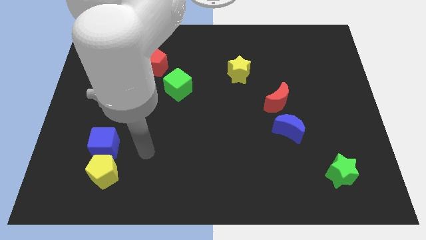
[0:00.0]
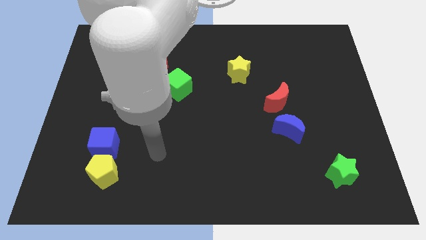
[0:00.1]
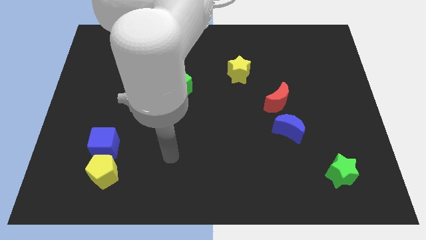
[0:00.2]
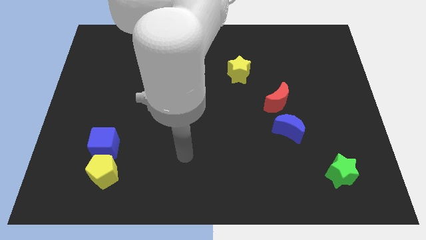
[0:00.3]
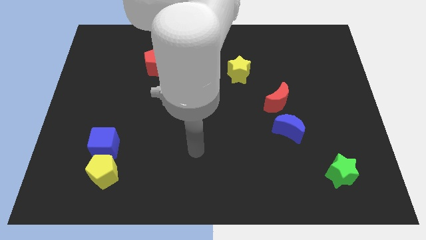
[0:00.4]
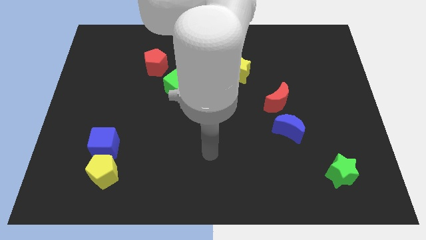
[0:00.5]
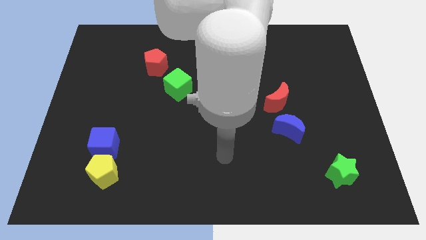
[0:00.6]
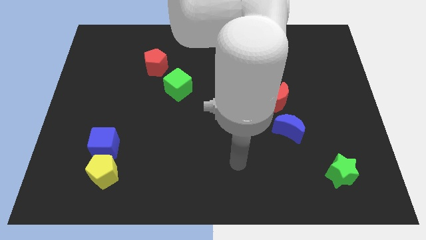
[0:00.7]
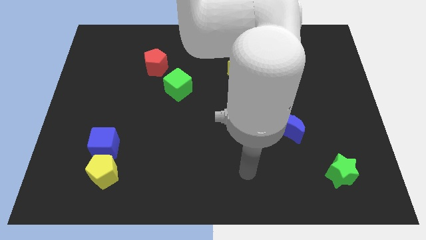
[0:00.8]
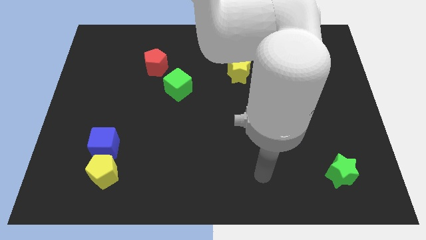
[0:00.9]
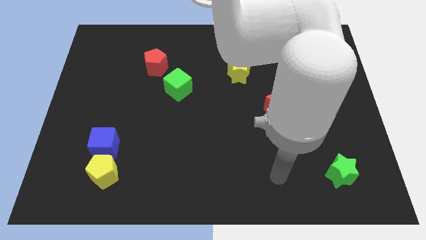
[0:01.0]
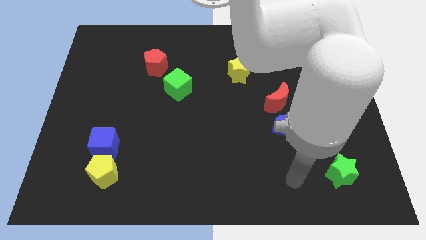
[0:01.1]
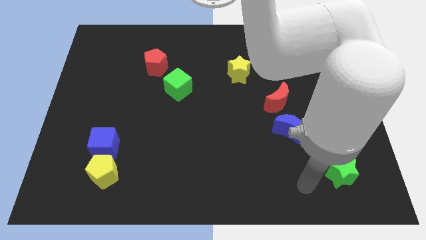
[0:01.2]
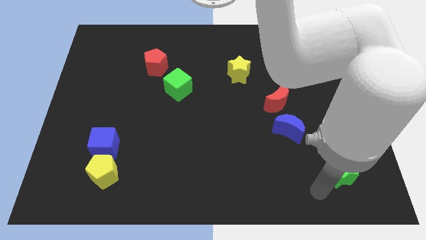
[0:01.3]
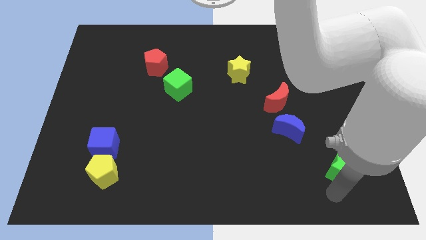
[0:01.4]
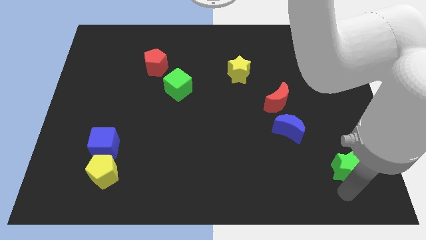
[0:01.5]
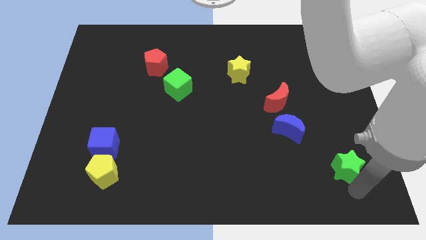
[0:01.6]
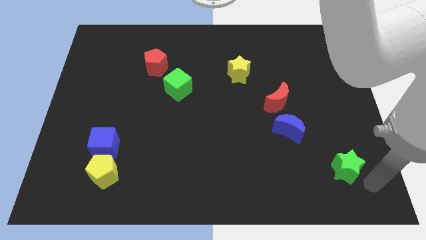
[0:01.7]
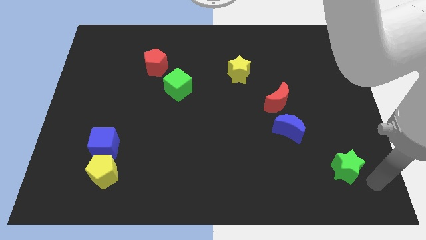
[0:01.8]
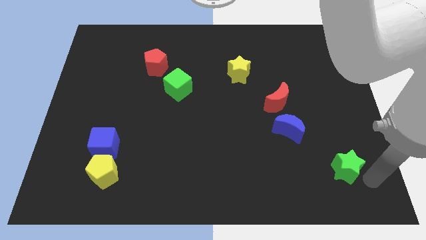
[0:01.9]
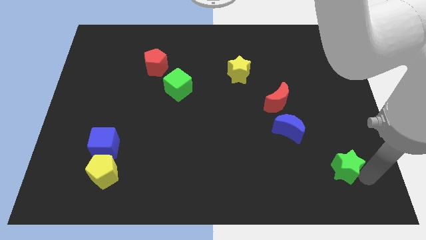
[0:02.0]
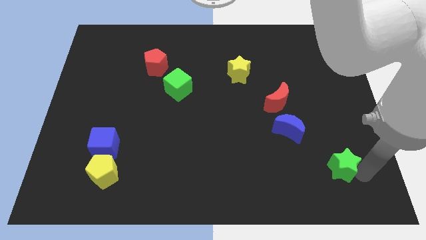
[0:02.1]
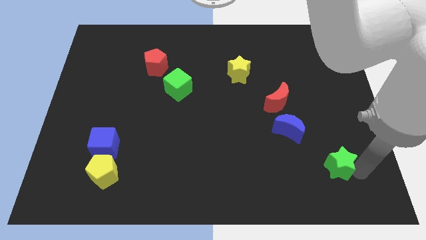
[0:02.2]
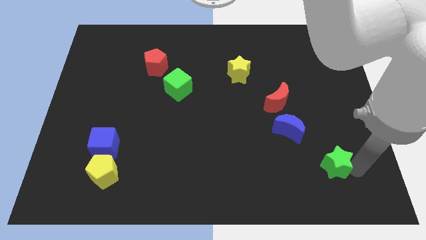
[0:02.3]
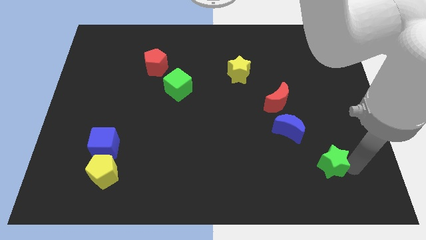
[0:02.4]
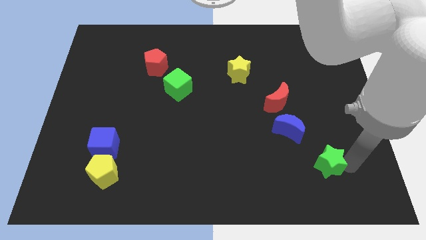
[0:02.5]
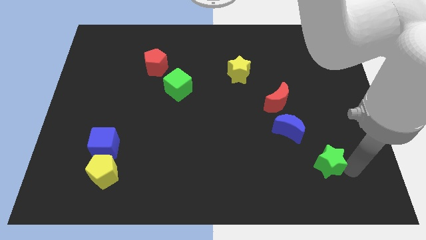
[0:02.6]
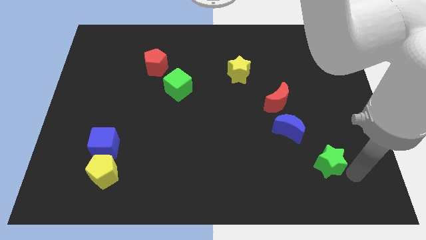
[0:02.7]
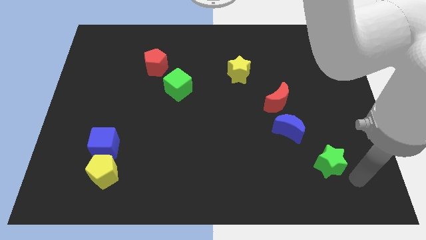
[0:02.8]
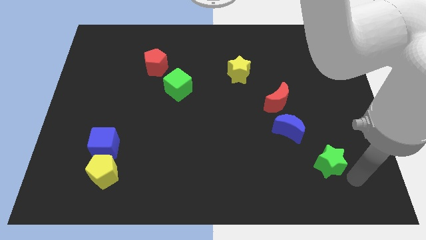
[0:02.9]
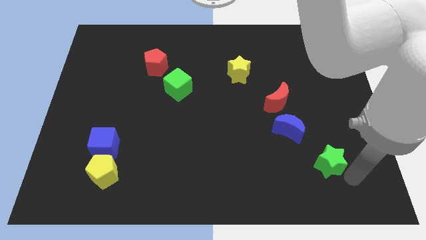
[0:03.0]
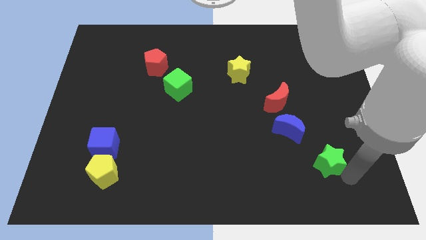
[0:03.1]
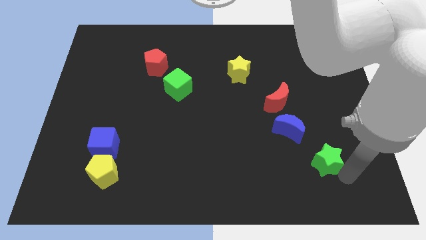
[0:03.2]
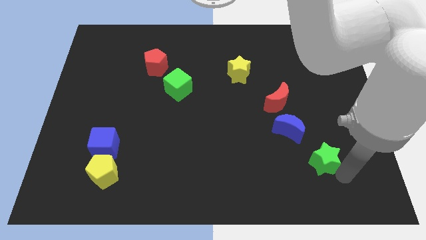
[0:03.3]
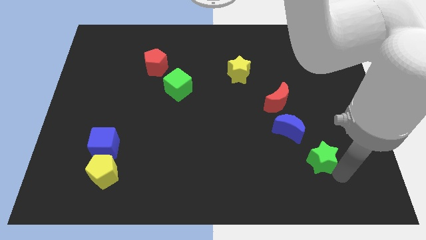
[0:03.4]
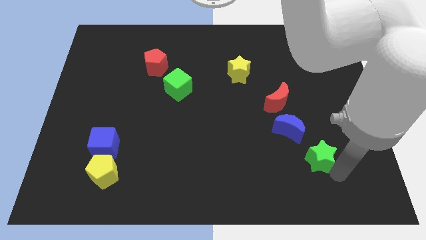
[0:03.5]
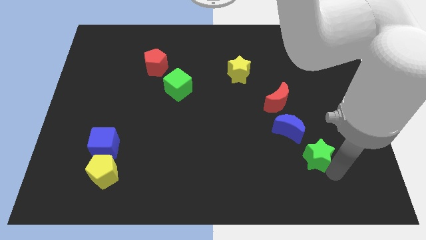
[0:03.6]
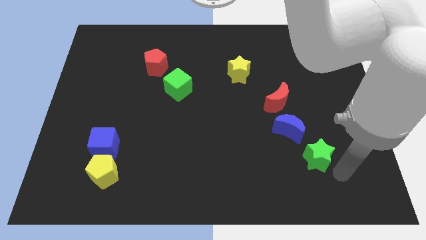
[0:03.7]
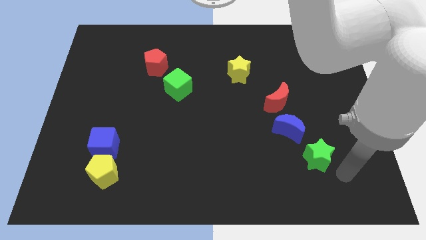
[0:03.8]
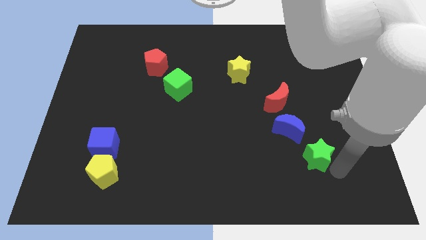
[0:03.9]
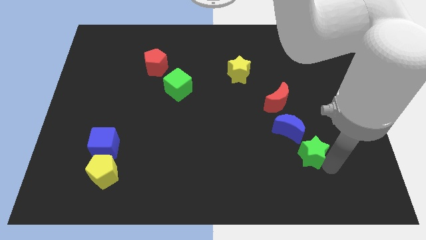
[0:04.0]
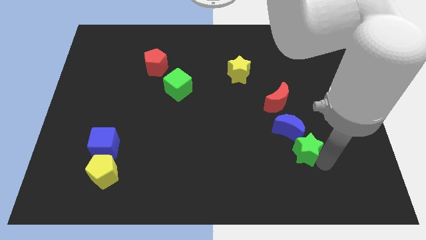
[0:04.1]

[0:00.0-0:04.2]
move the green star a little up and then left

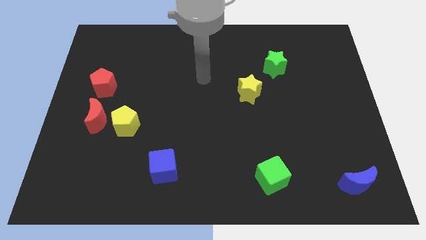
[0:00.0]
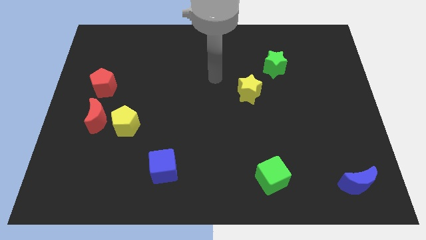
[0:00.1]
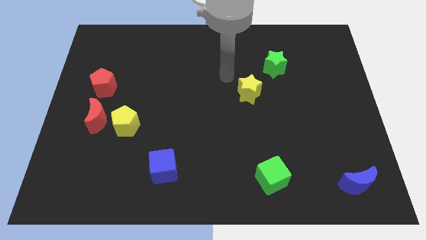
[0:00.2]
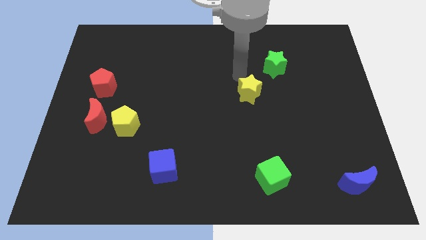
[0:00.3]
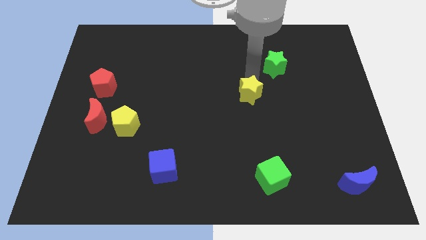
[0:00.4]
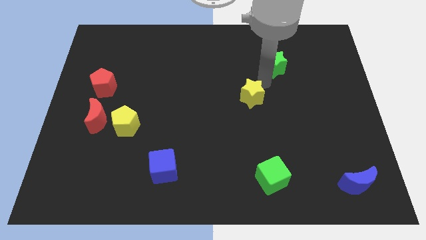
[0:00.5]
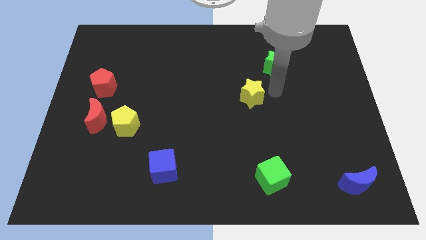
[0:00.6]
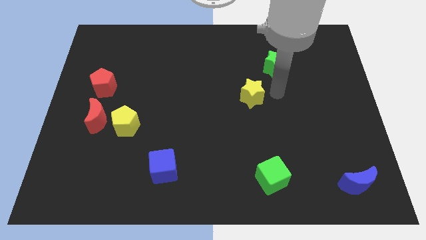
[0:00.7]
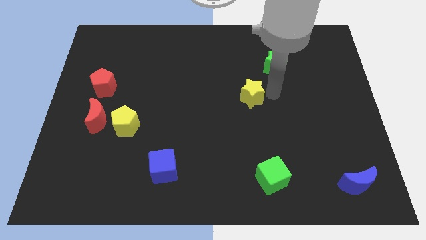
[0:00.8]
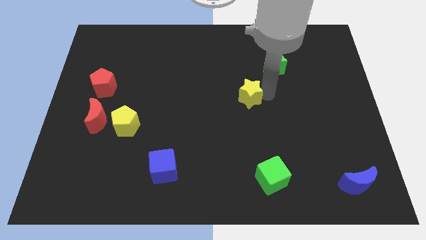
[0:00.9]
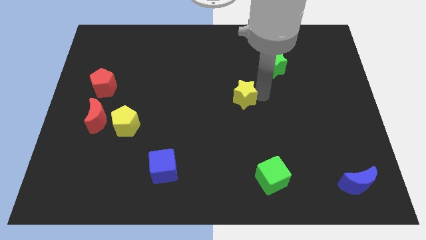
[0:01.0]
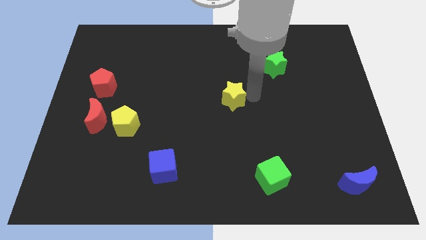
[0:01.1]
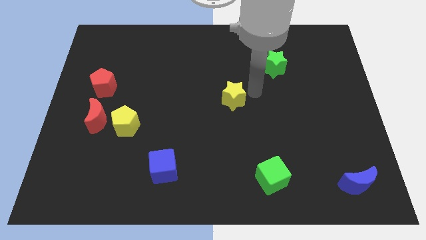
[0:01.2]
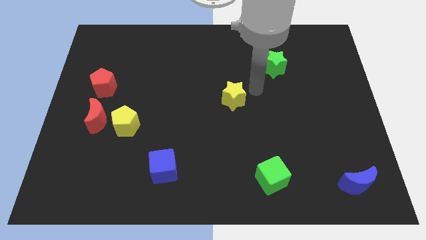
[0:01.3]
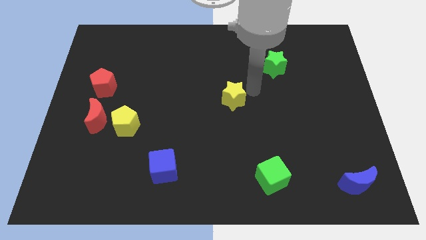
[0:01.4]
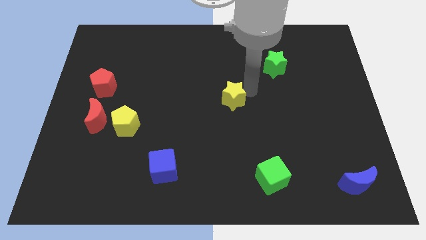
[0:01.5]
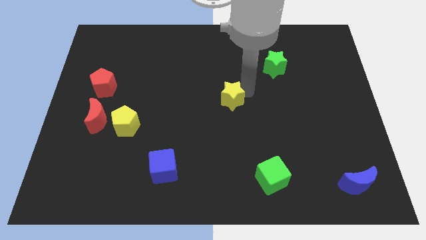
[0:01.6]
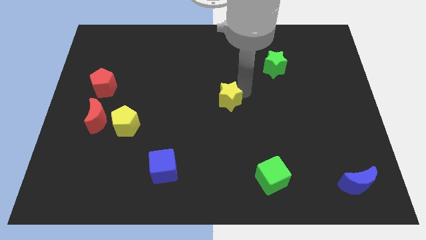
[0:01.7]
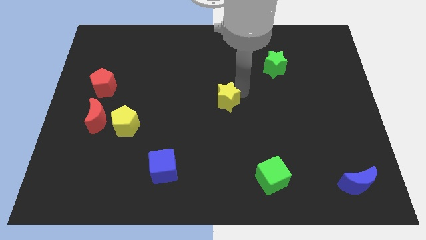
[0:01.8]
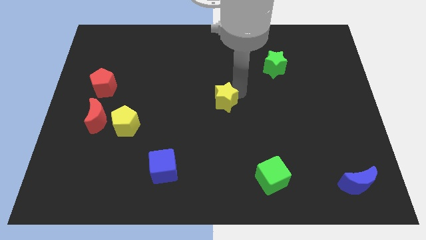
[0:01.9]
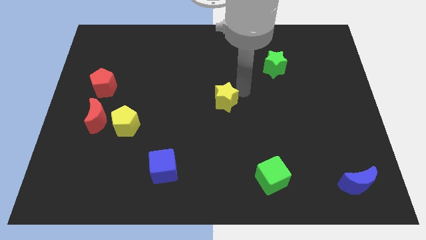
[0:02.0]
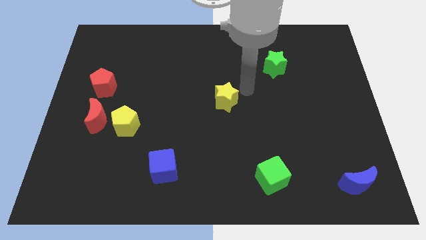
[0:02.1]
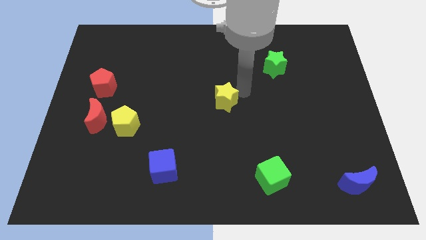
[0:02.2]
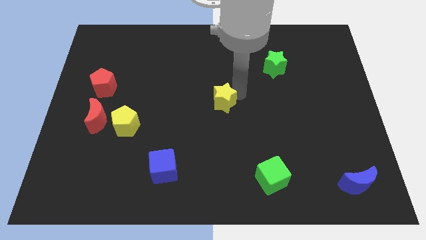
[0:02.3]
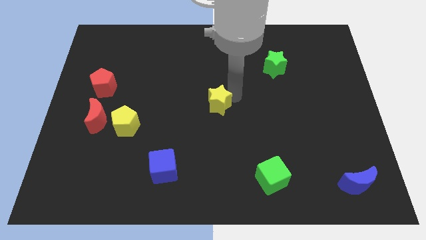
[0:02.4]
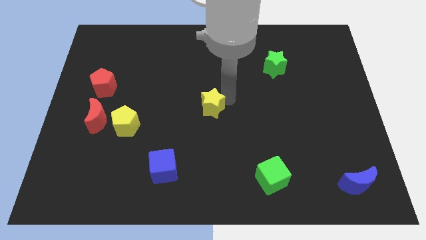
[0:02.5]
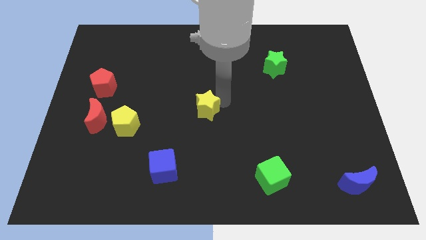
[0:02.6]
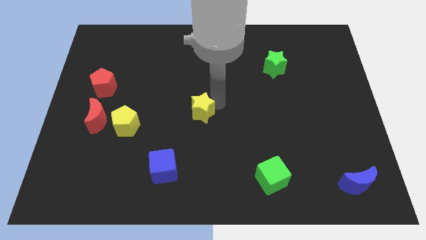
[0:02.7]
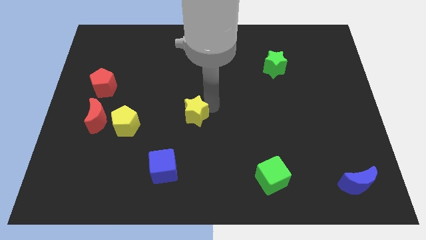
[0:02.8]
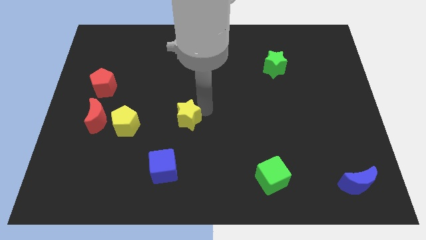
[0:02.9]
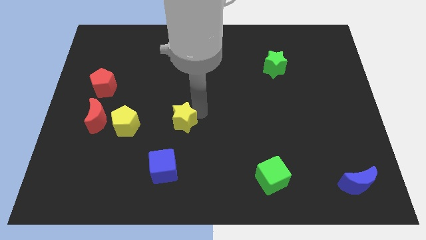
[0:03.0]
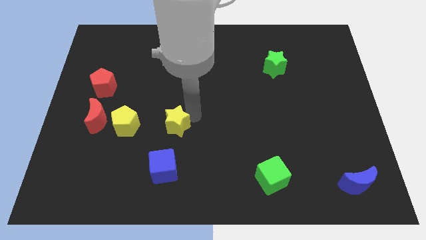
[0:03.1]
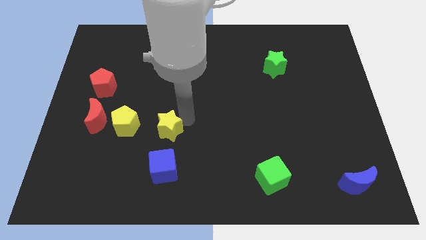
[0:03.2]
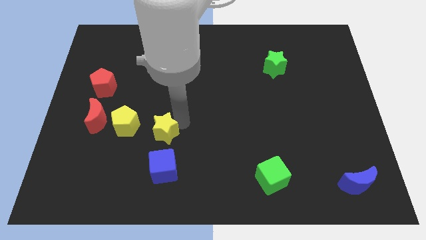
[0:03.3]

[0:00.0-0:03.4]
push the yellow star downwards and to the left
